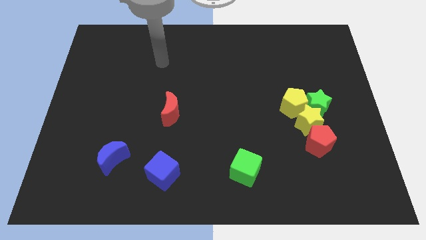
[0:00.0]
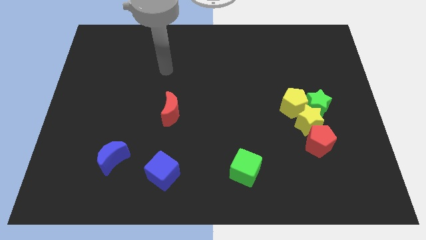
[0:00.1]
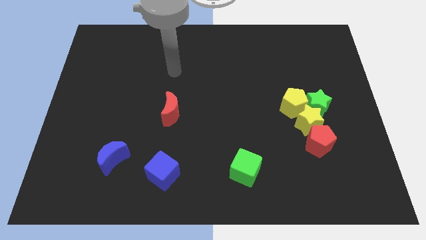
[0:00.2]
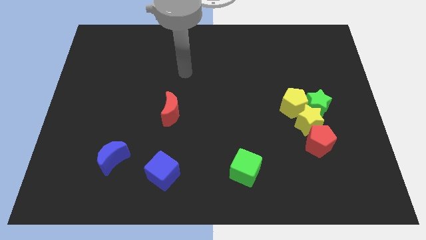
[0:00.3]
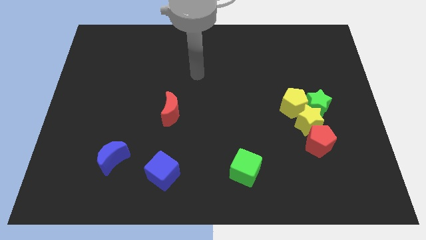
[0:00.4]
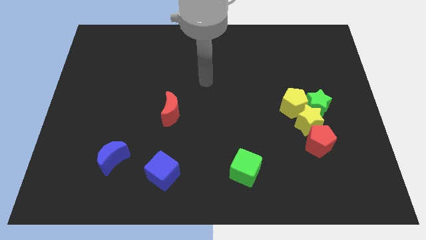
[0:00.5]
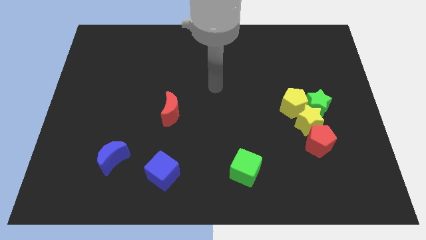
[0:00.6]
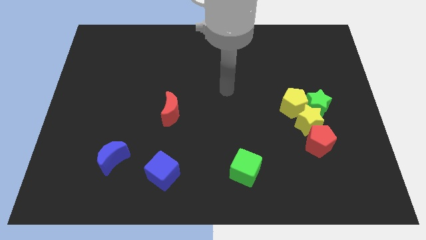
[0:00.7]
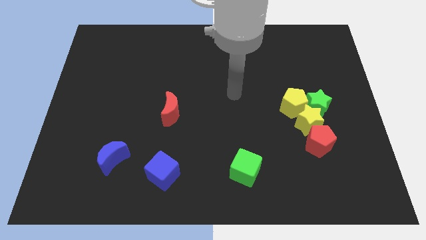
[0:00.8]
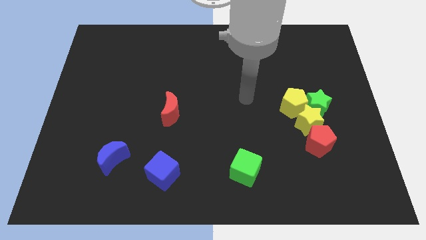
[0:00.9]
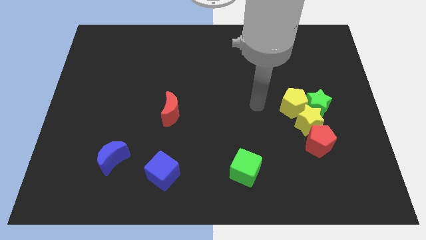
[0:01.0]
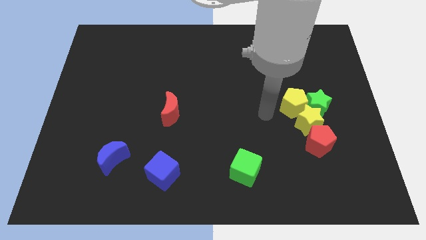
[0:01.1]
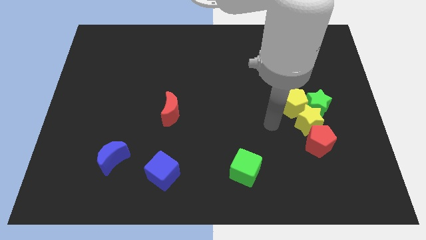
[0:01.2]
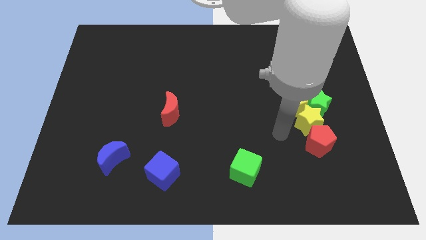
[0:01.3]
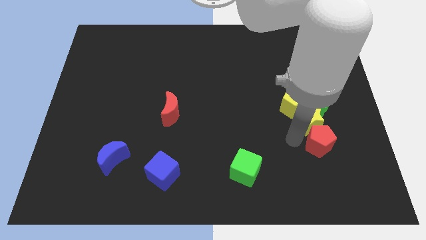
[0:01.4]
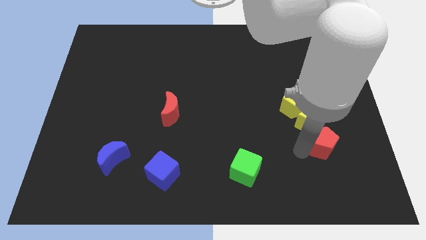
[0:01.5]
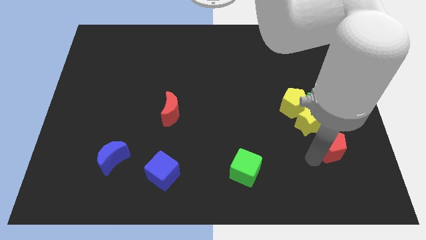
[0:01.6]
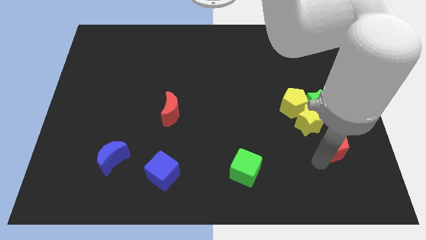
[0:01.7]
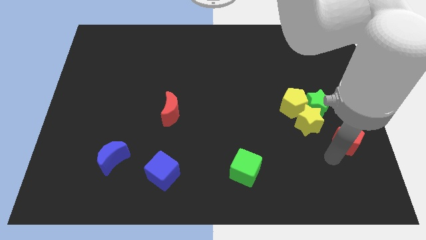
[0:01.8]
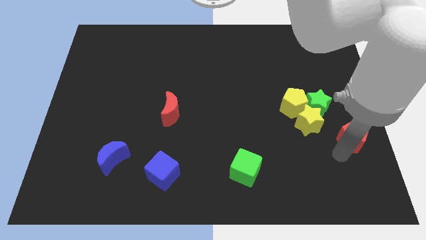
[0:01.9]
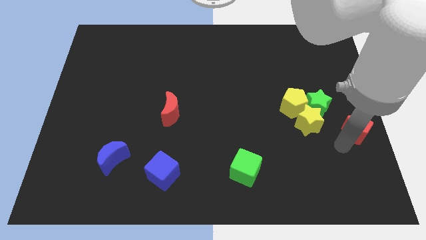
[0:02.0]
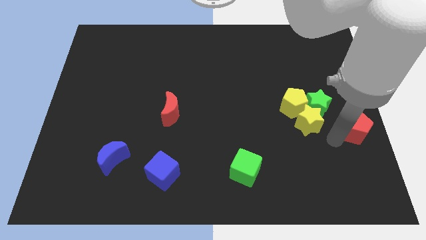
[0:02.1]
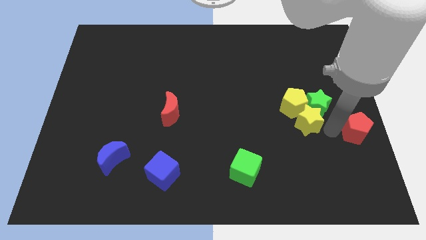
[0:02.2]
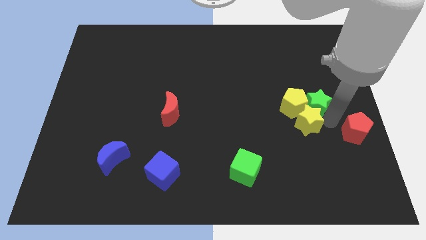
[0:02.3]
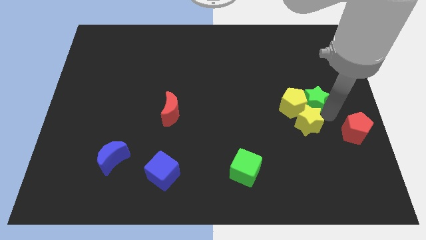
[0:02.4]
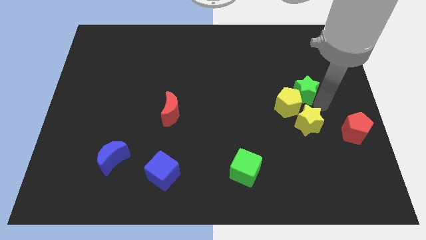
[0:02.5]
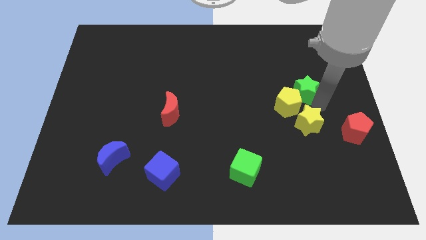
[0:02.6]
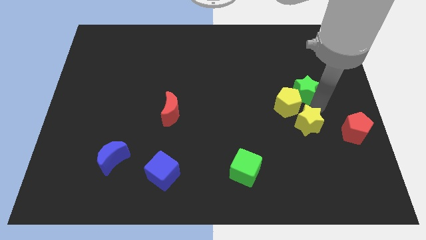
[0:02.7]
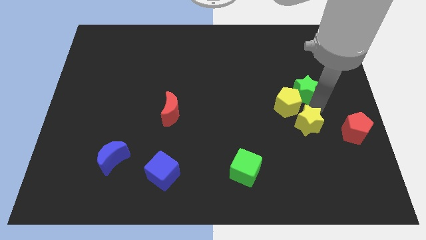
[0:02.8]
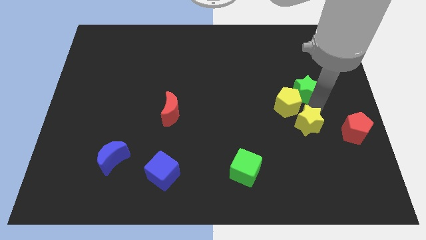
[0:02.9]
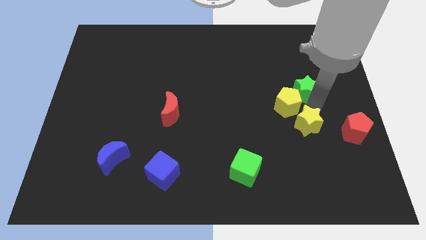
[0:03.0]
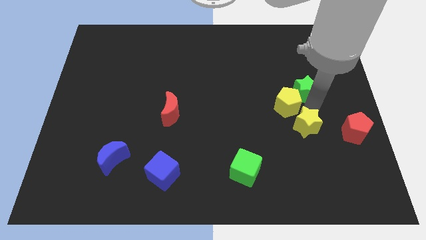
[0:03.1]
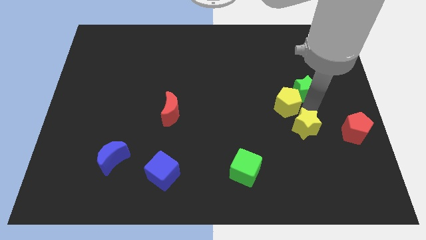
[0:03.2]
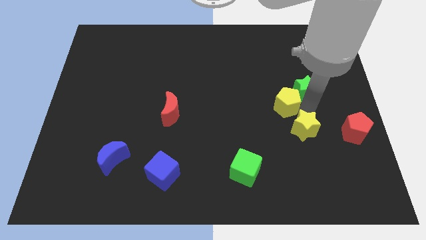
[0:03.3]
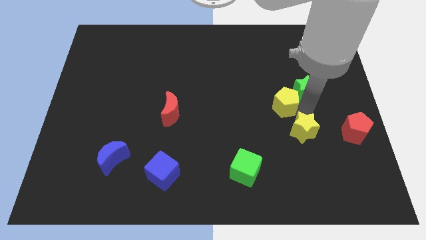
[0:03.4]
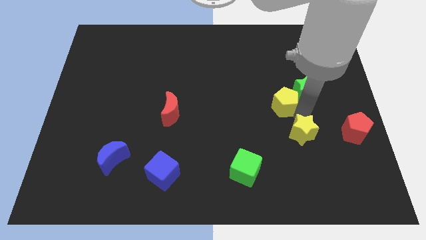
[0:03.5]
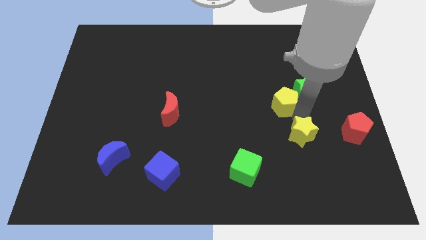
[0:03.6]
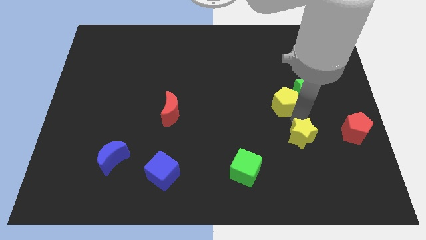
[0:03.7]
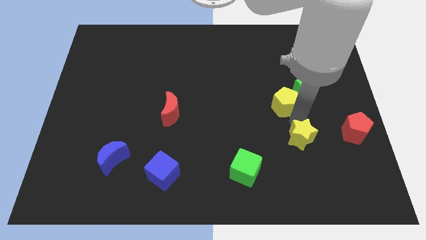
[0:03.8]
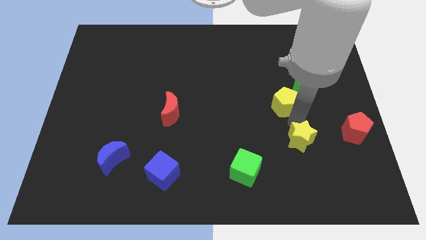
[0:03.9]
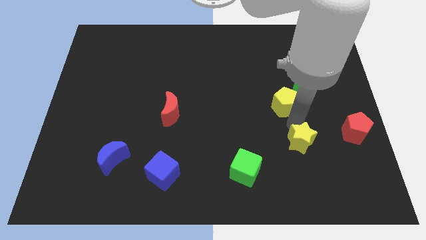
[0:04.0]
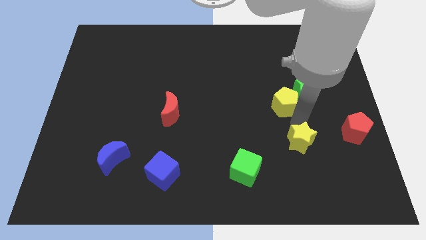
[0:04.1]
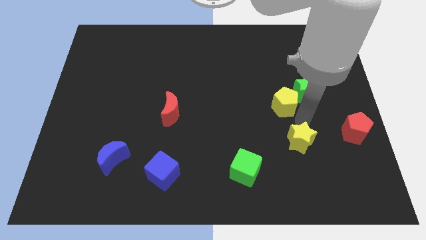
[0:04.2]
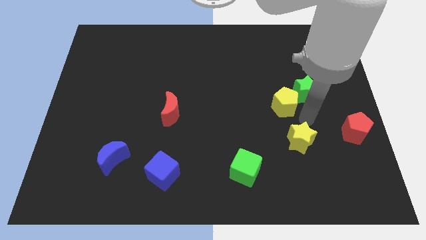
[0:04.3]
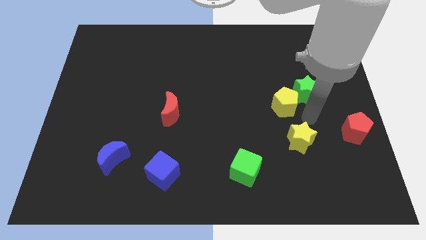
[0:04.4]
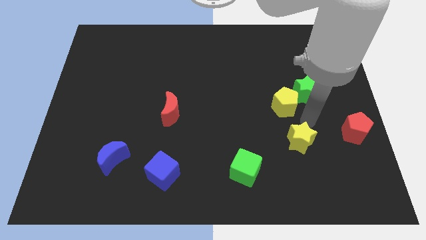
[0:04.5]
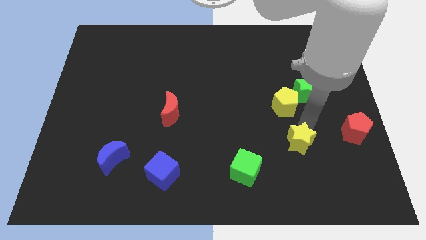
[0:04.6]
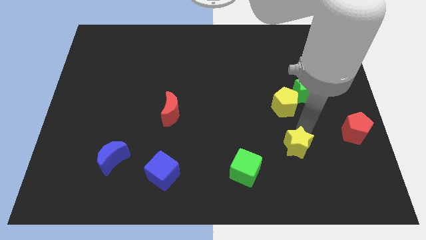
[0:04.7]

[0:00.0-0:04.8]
move the yellow star away from the group of blocks

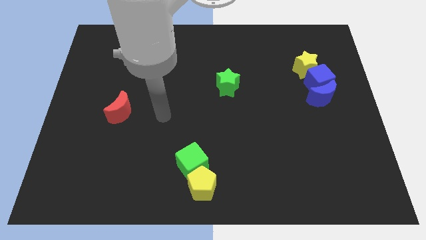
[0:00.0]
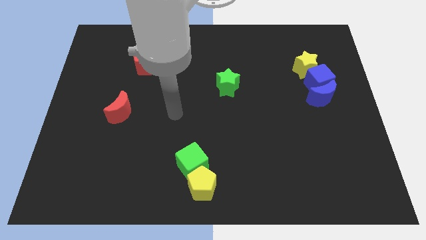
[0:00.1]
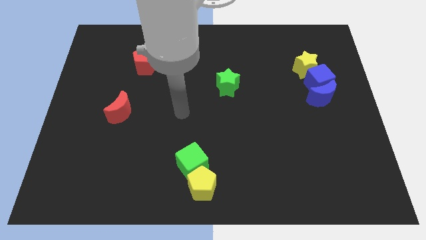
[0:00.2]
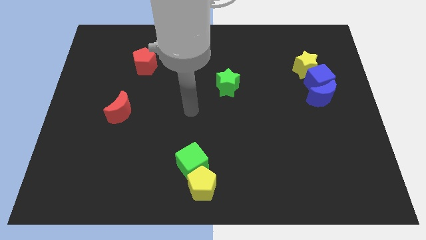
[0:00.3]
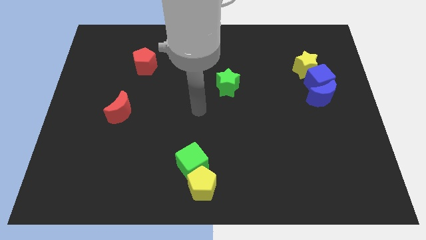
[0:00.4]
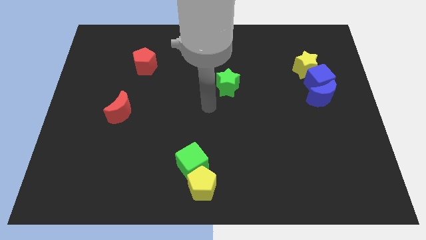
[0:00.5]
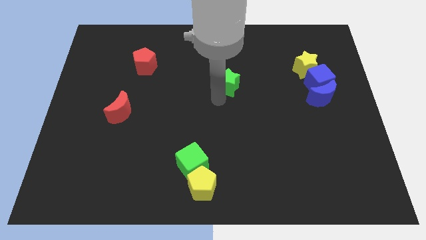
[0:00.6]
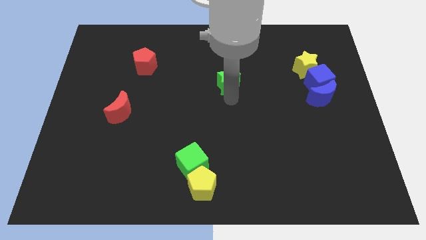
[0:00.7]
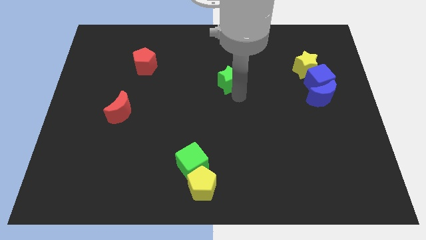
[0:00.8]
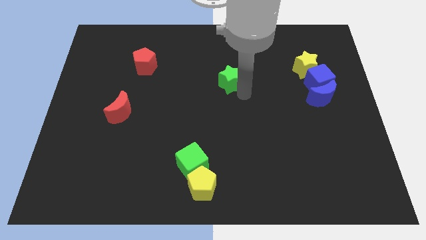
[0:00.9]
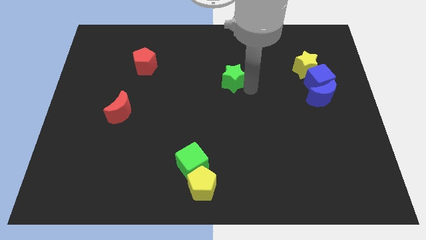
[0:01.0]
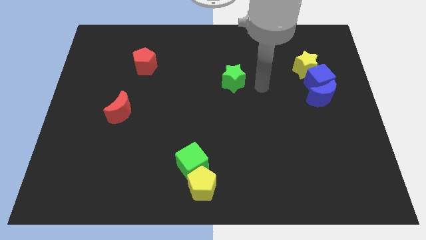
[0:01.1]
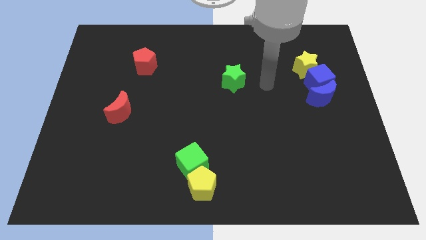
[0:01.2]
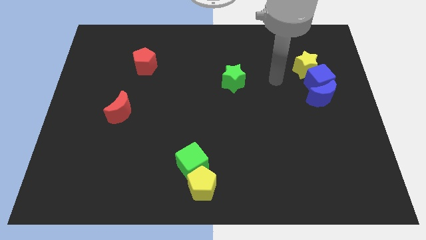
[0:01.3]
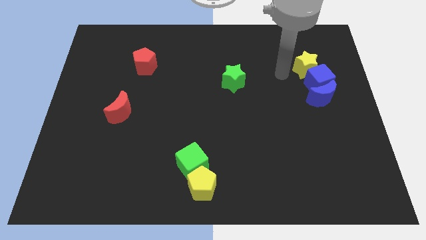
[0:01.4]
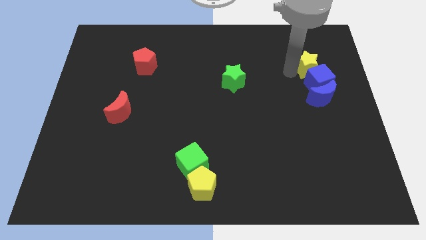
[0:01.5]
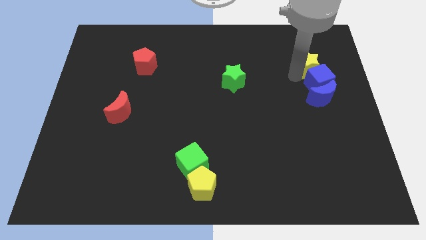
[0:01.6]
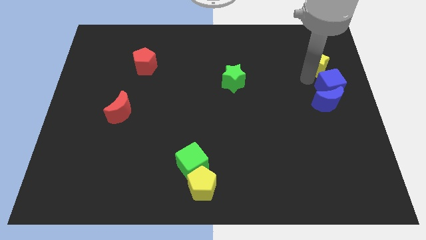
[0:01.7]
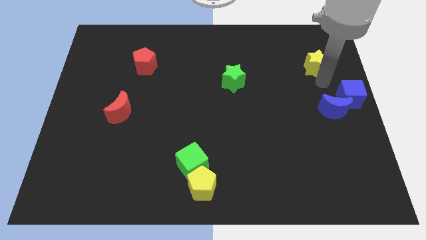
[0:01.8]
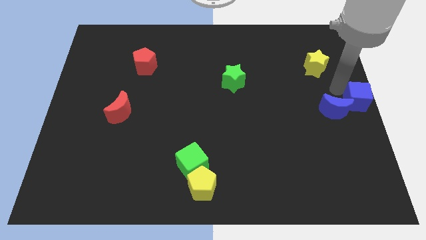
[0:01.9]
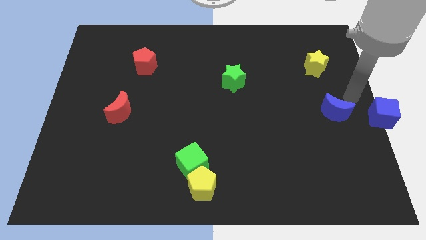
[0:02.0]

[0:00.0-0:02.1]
separate the blue moon from the blue cube

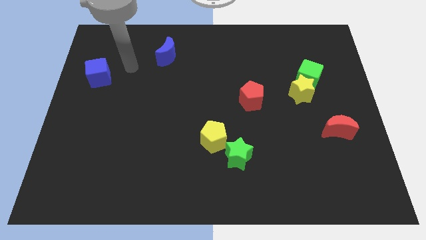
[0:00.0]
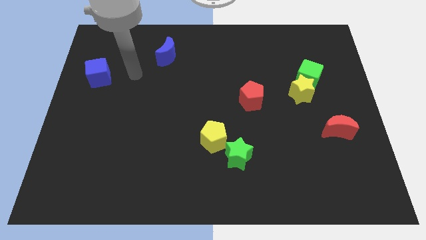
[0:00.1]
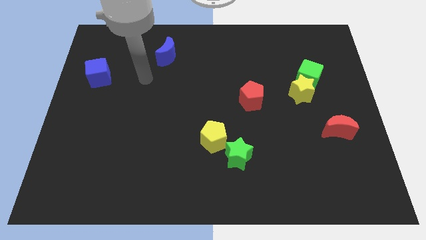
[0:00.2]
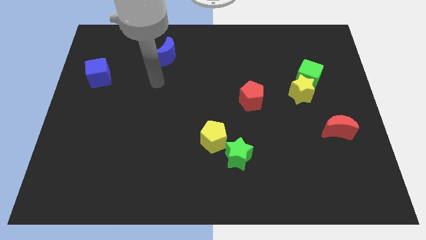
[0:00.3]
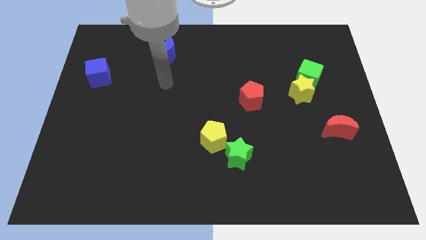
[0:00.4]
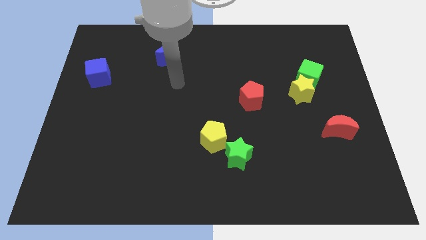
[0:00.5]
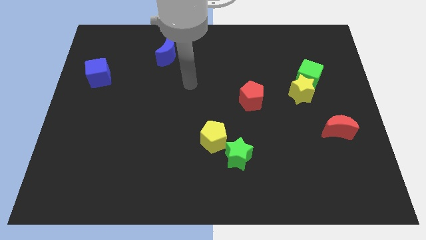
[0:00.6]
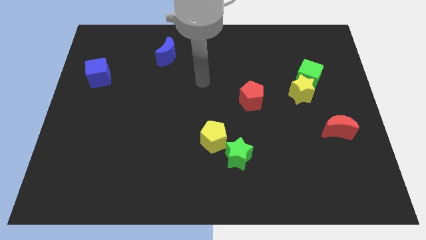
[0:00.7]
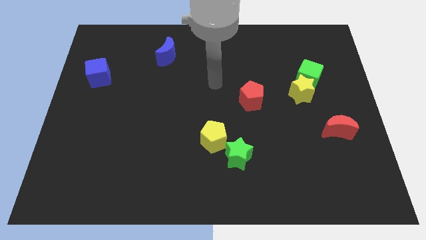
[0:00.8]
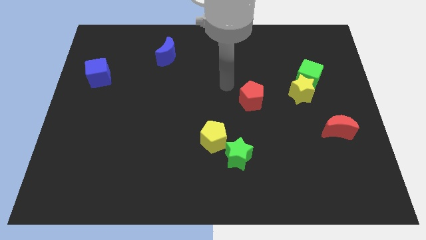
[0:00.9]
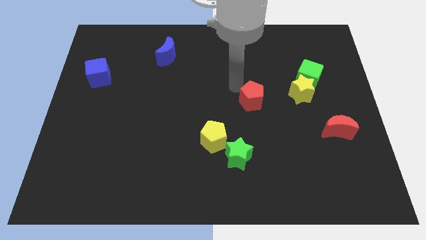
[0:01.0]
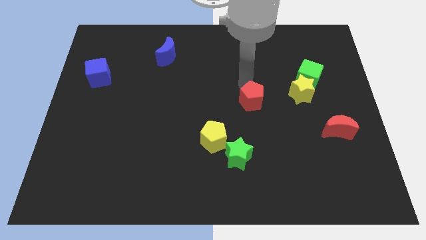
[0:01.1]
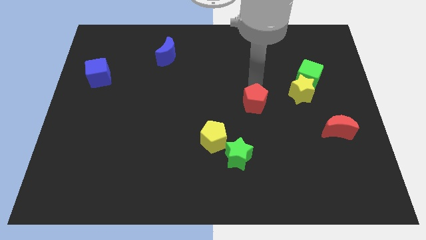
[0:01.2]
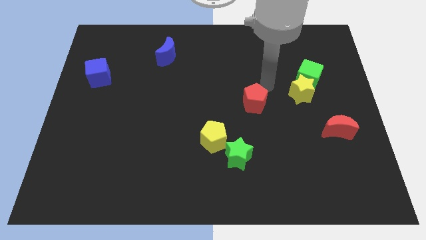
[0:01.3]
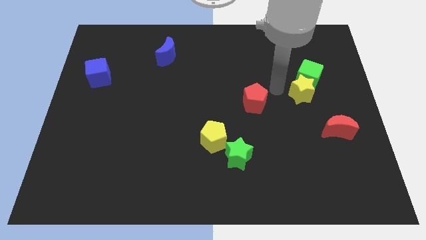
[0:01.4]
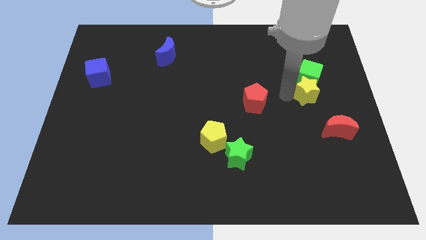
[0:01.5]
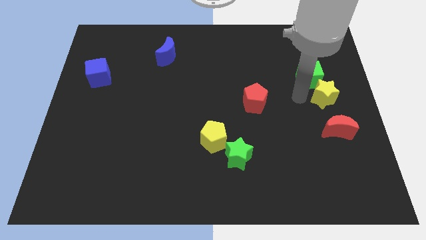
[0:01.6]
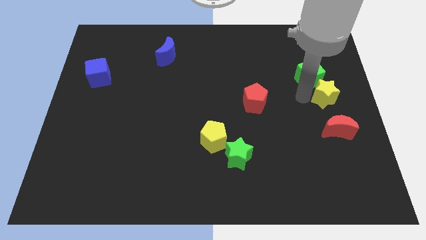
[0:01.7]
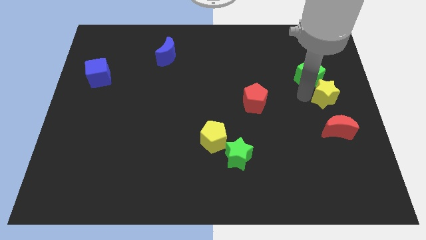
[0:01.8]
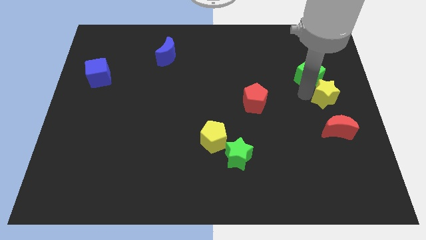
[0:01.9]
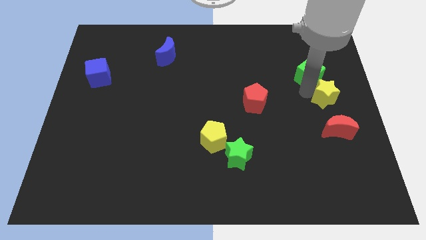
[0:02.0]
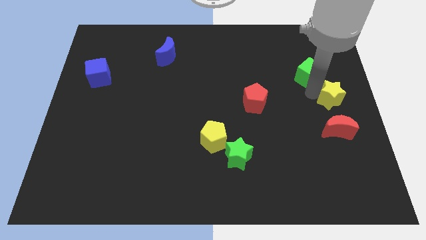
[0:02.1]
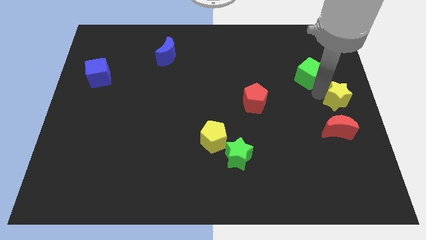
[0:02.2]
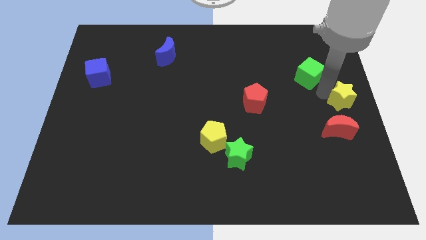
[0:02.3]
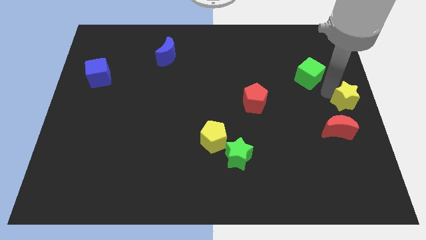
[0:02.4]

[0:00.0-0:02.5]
move the green cube away from the yellow star
